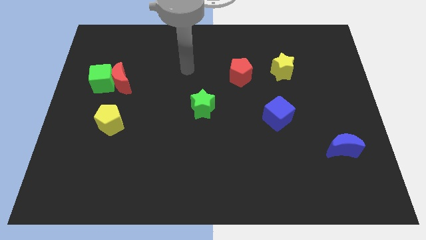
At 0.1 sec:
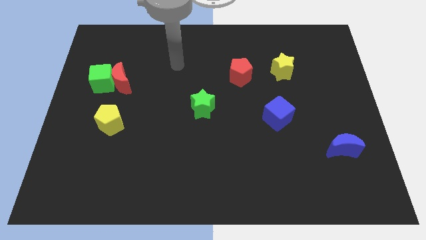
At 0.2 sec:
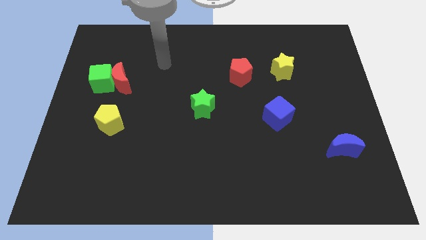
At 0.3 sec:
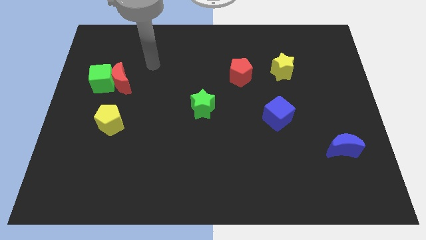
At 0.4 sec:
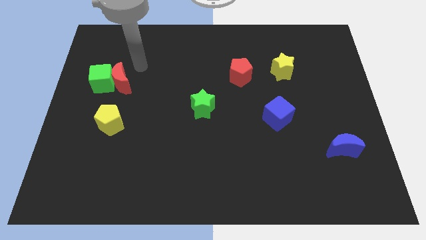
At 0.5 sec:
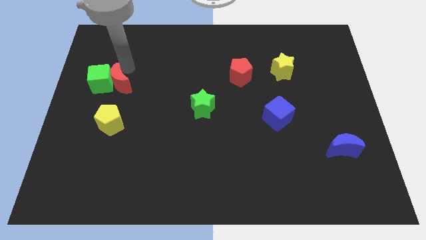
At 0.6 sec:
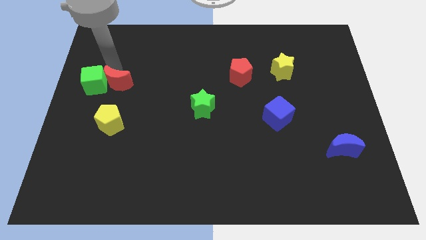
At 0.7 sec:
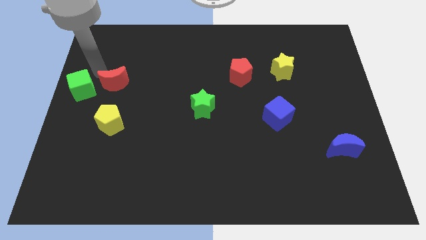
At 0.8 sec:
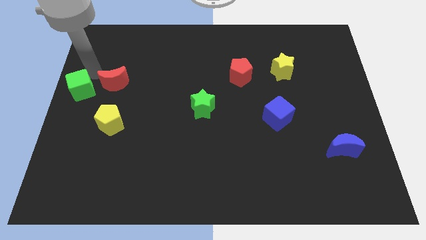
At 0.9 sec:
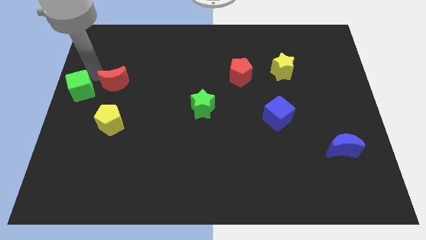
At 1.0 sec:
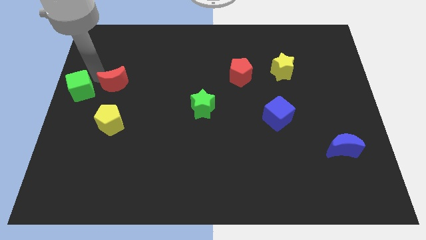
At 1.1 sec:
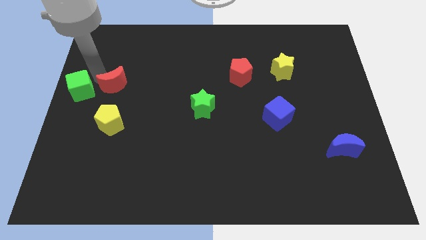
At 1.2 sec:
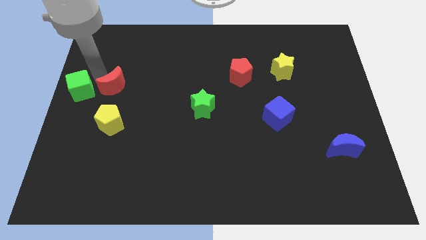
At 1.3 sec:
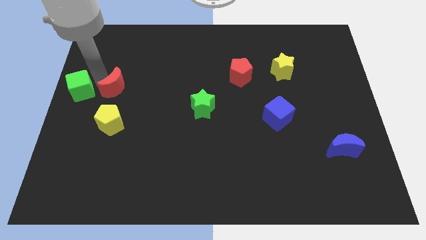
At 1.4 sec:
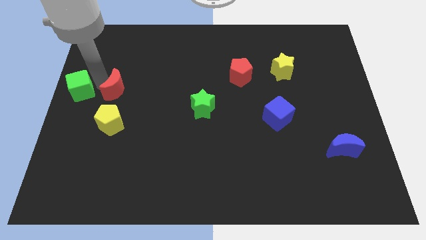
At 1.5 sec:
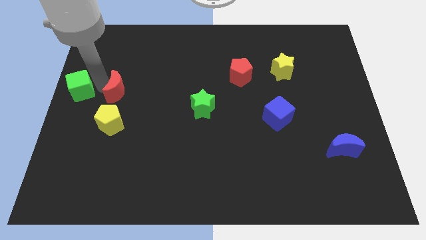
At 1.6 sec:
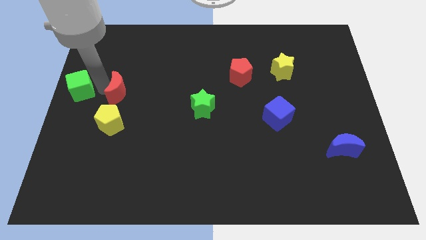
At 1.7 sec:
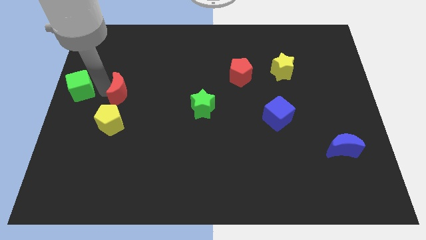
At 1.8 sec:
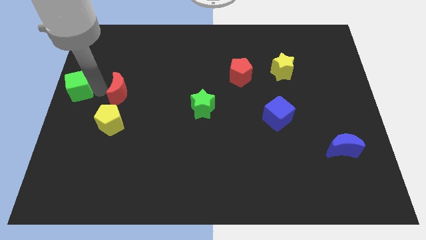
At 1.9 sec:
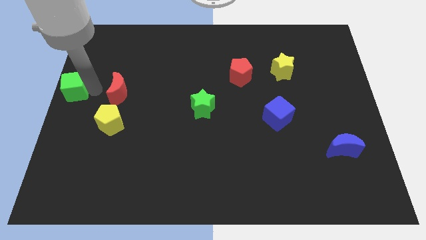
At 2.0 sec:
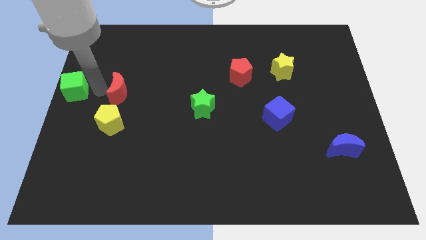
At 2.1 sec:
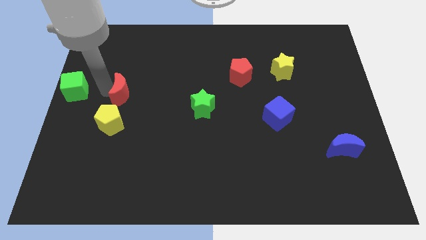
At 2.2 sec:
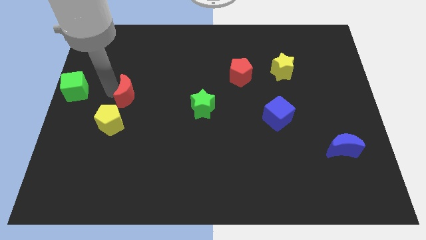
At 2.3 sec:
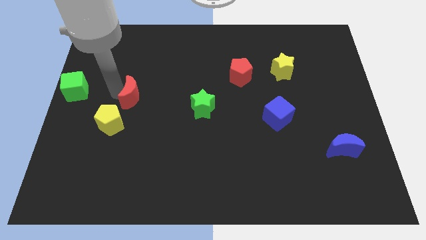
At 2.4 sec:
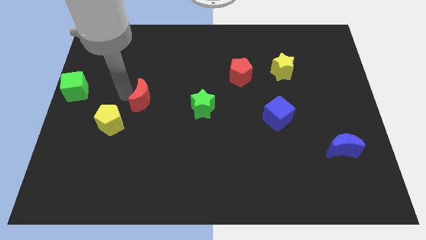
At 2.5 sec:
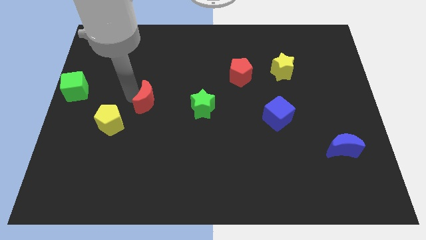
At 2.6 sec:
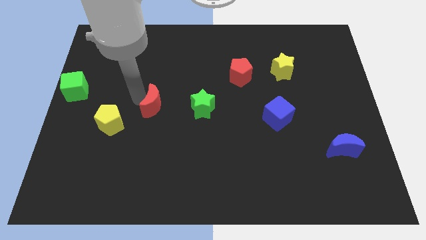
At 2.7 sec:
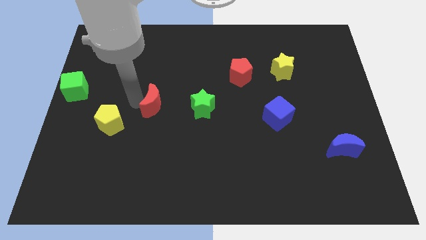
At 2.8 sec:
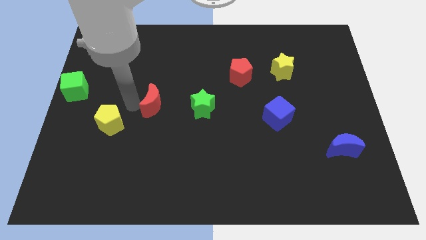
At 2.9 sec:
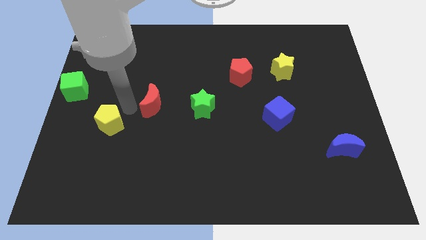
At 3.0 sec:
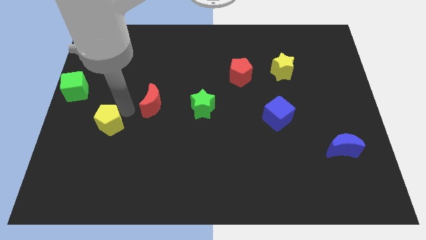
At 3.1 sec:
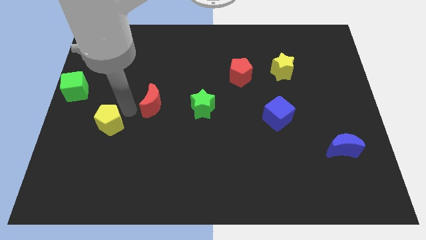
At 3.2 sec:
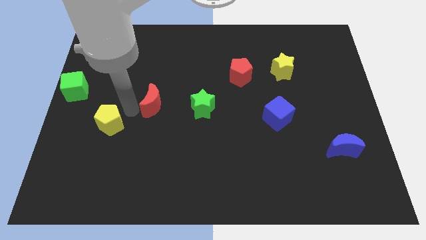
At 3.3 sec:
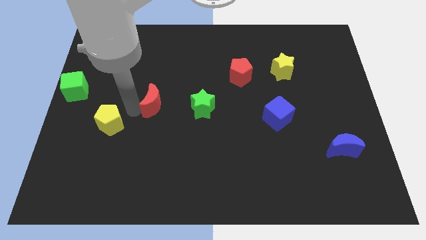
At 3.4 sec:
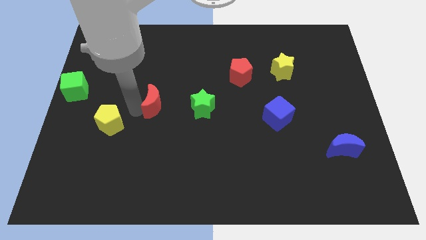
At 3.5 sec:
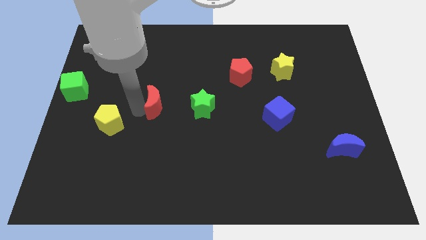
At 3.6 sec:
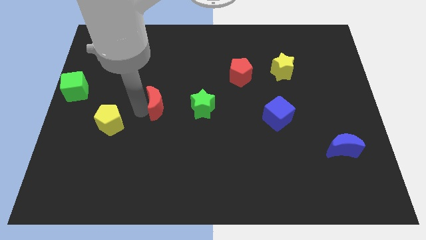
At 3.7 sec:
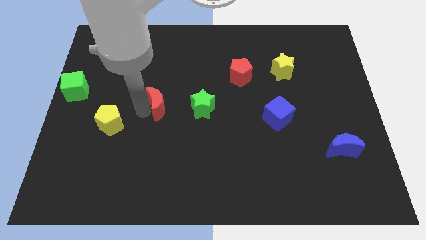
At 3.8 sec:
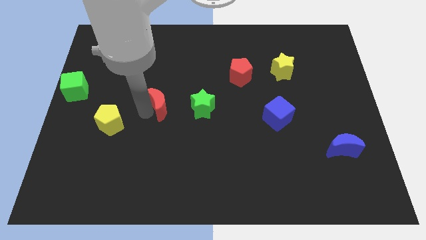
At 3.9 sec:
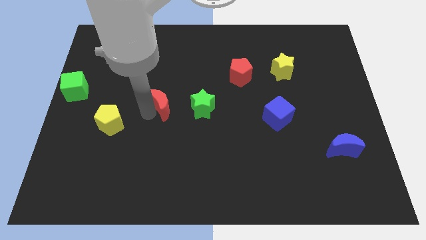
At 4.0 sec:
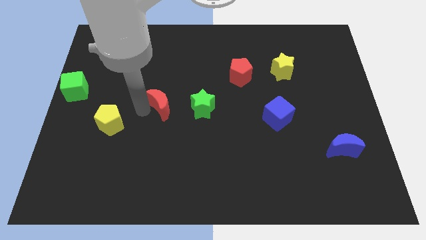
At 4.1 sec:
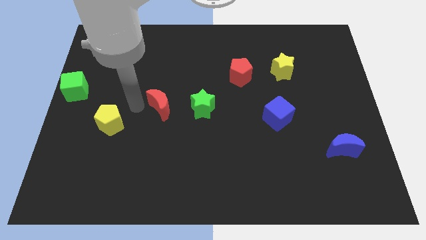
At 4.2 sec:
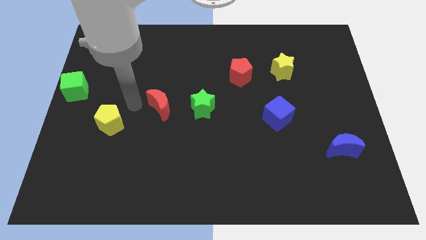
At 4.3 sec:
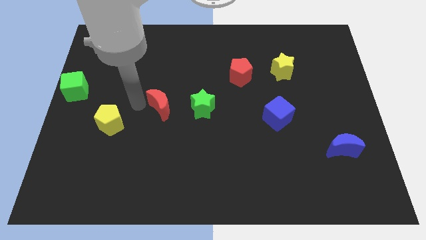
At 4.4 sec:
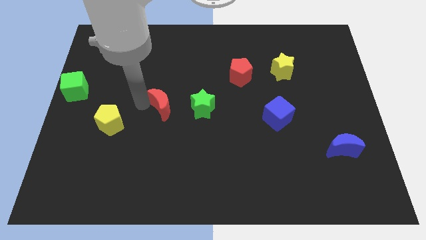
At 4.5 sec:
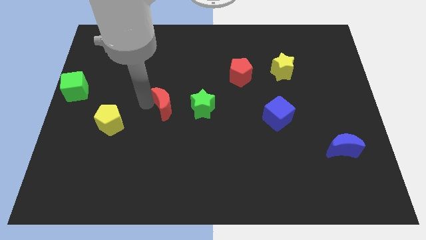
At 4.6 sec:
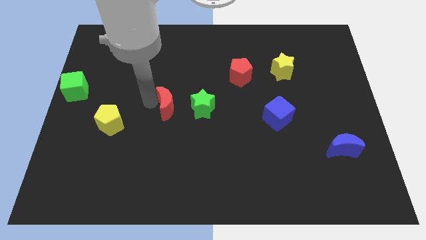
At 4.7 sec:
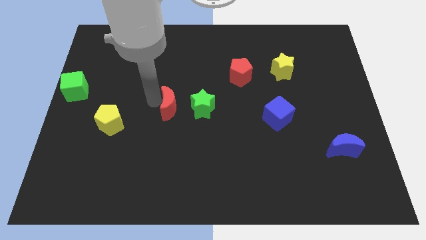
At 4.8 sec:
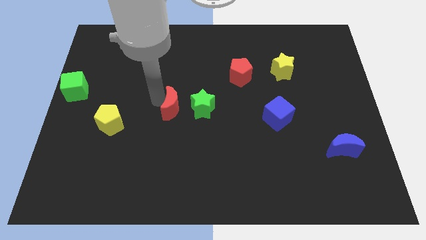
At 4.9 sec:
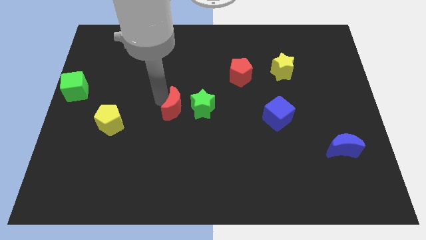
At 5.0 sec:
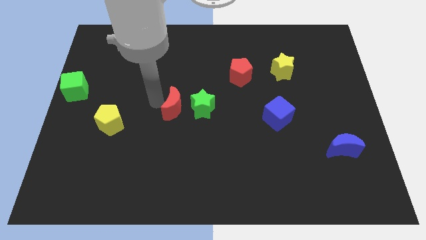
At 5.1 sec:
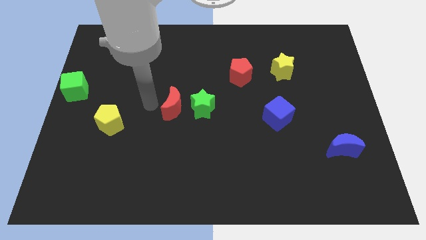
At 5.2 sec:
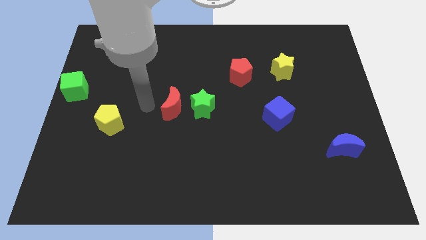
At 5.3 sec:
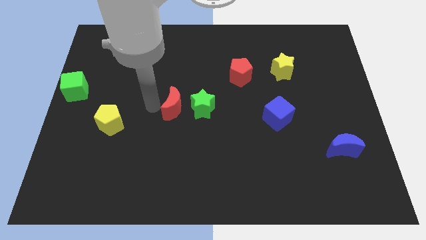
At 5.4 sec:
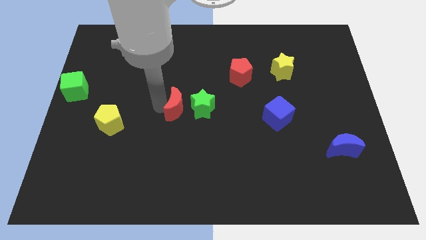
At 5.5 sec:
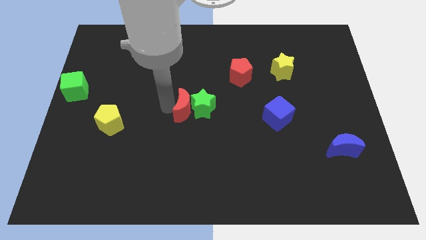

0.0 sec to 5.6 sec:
put the red moon towards the green star

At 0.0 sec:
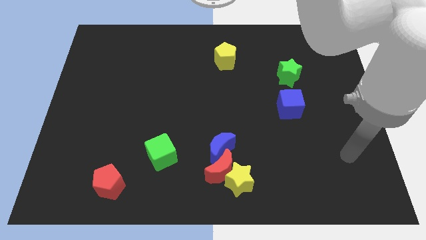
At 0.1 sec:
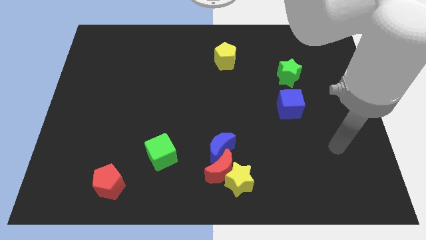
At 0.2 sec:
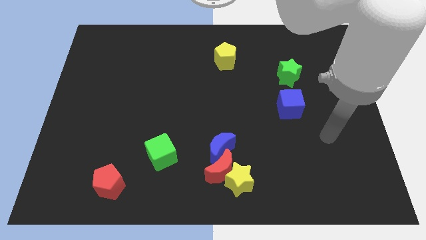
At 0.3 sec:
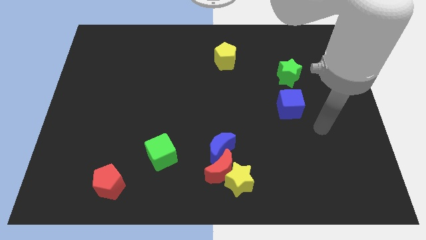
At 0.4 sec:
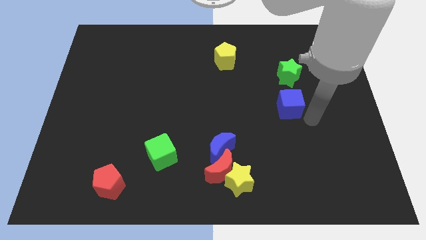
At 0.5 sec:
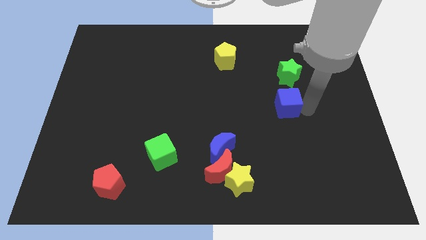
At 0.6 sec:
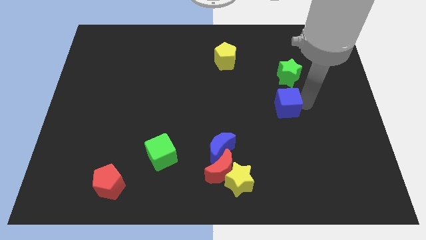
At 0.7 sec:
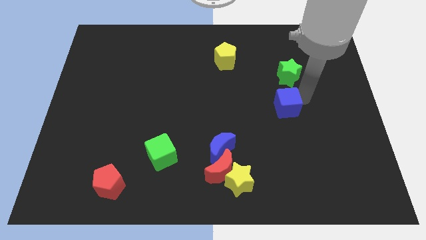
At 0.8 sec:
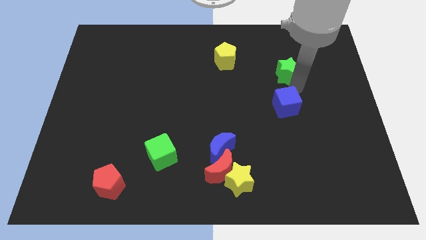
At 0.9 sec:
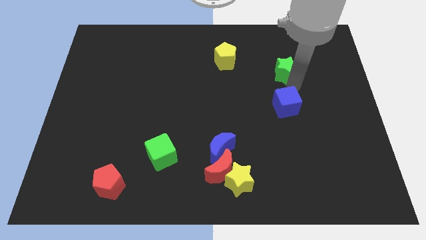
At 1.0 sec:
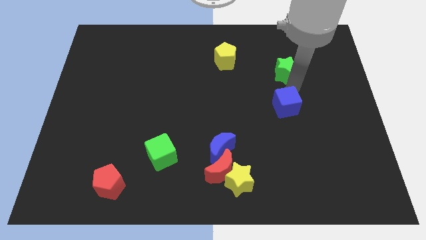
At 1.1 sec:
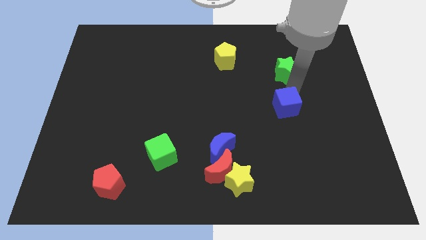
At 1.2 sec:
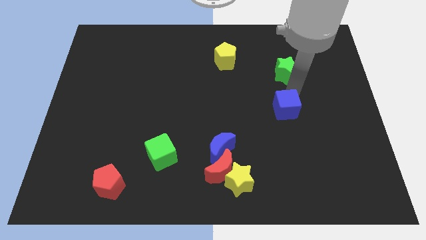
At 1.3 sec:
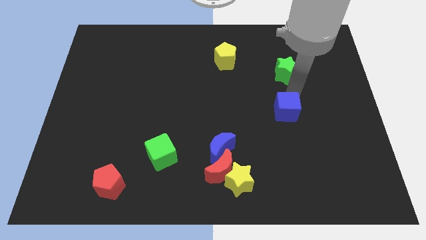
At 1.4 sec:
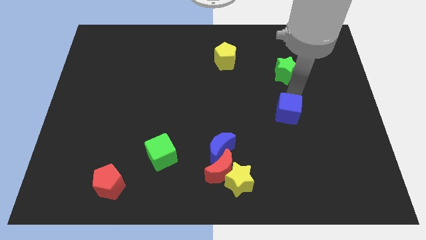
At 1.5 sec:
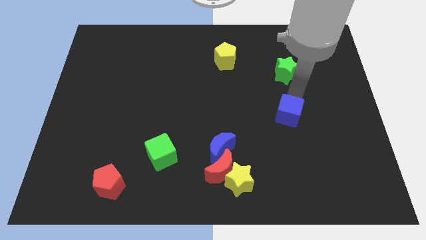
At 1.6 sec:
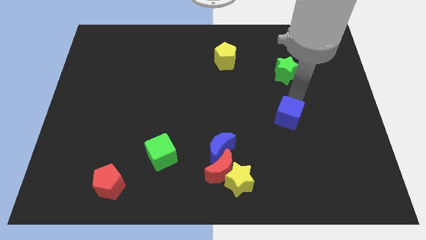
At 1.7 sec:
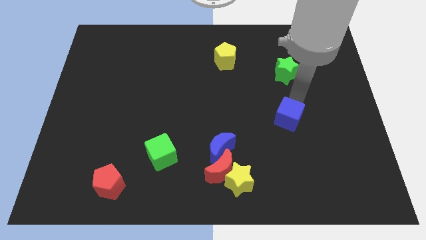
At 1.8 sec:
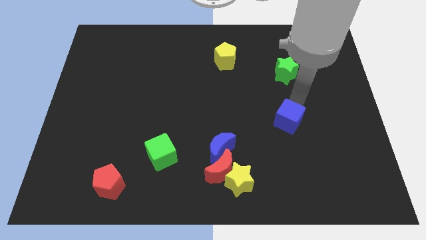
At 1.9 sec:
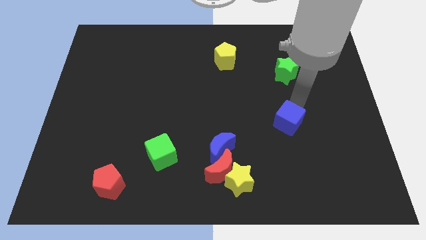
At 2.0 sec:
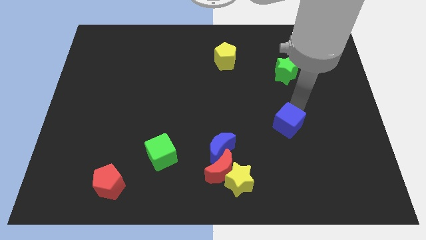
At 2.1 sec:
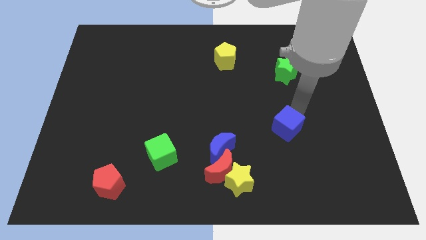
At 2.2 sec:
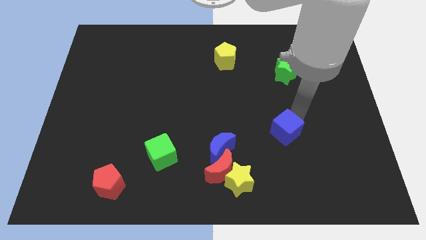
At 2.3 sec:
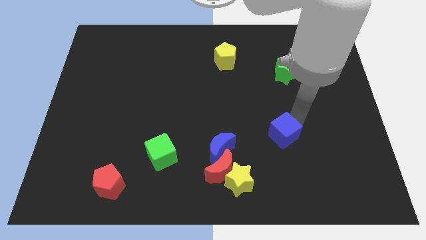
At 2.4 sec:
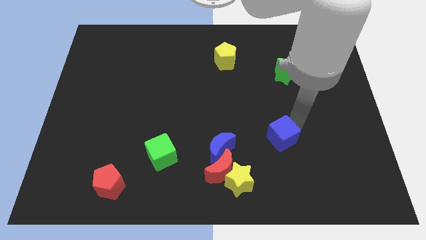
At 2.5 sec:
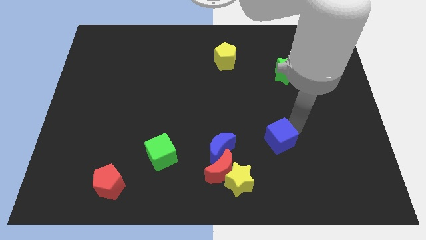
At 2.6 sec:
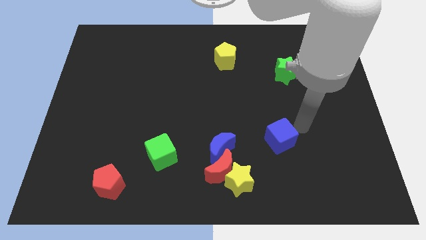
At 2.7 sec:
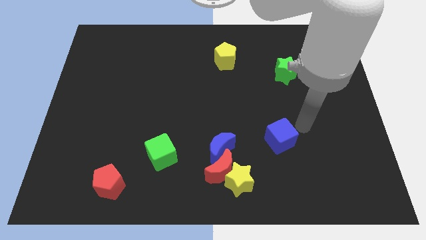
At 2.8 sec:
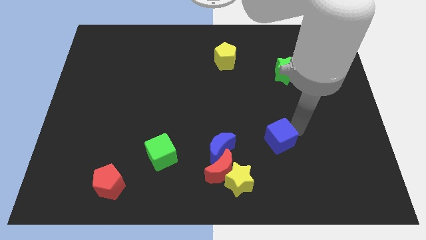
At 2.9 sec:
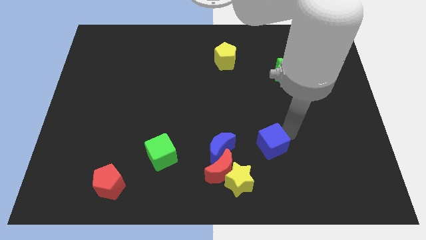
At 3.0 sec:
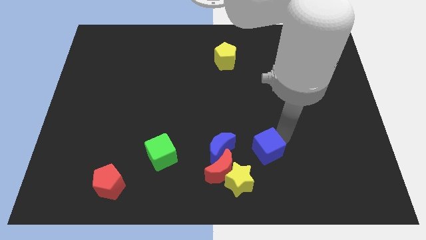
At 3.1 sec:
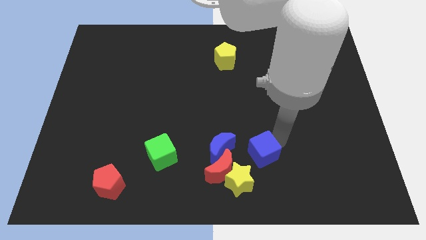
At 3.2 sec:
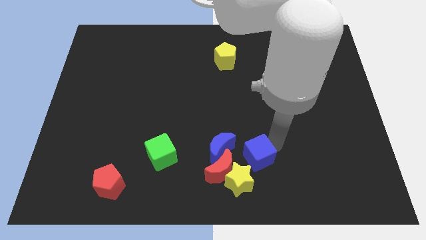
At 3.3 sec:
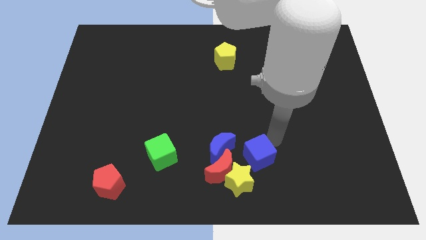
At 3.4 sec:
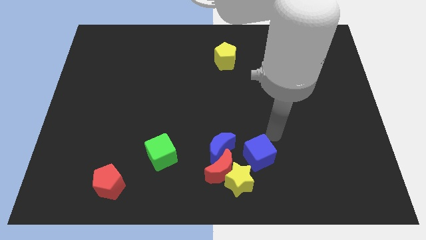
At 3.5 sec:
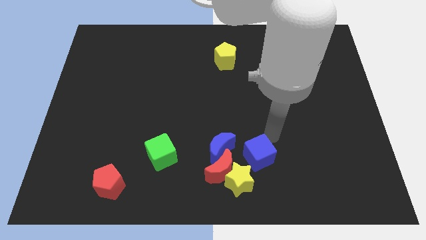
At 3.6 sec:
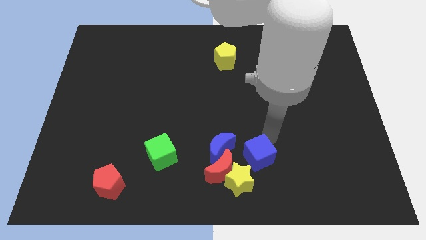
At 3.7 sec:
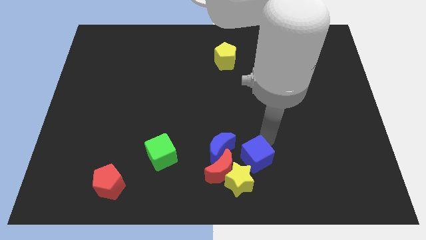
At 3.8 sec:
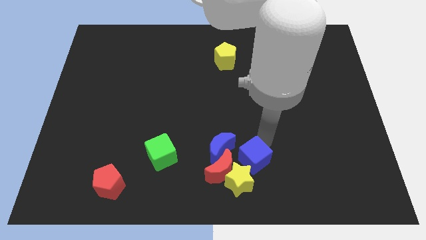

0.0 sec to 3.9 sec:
put the blue cube to the yellow star
